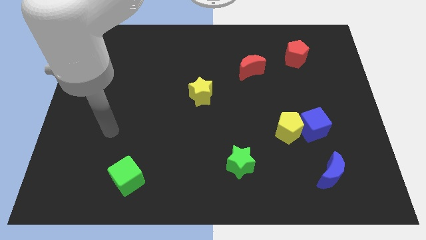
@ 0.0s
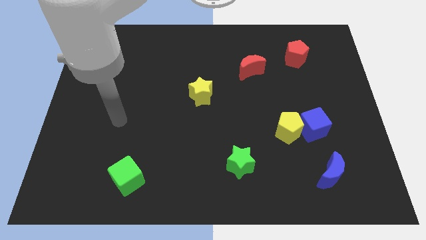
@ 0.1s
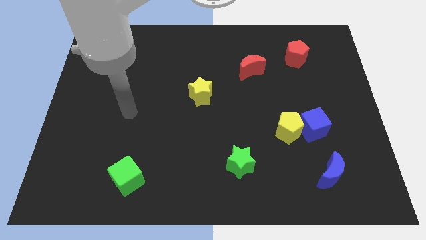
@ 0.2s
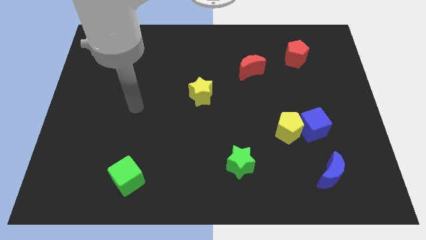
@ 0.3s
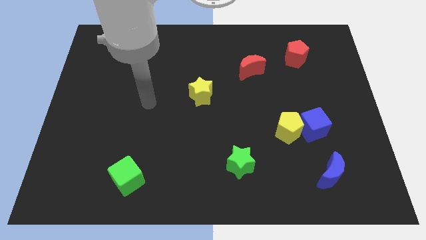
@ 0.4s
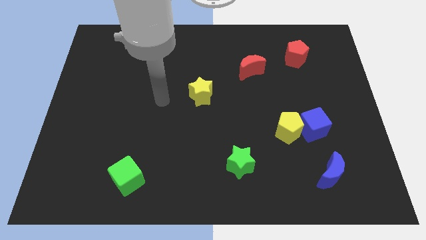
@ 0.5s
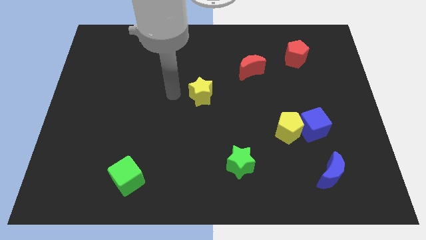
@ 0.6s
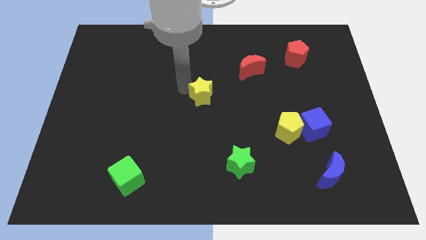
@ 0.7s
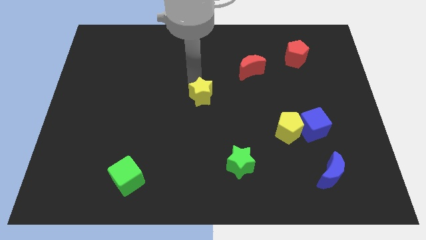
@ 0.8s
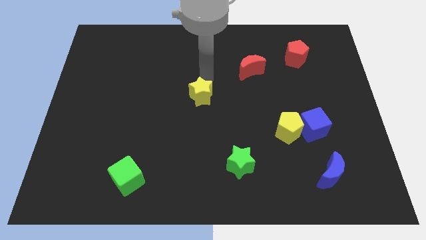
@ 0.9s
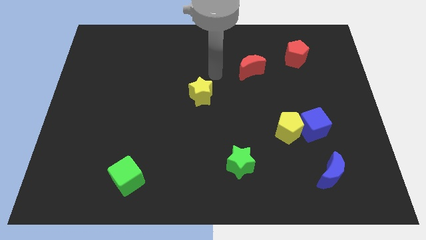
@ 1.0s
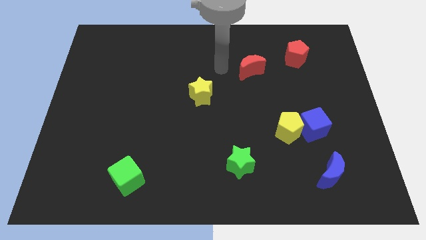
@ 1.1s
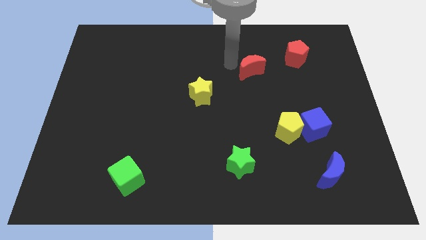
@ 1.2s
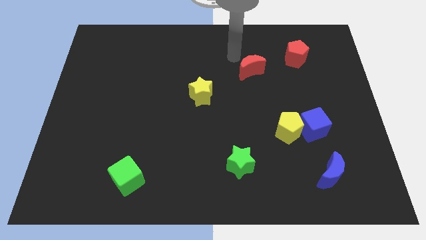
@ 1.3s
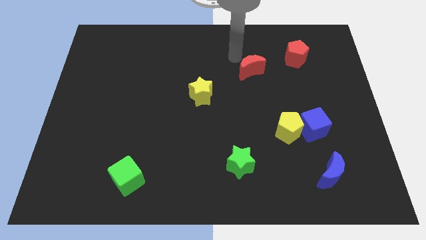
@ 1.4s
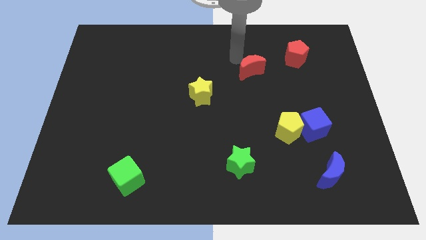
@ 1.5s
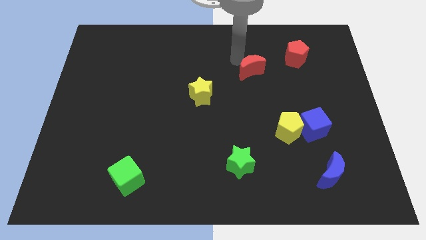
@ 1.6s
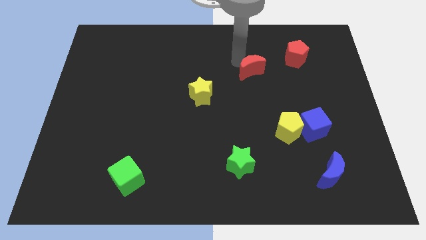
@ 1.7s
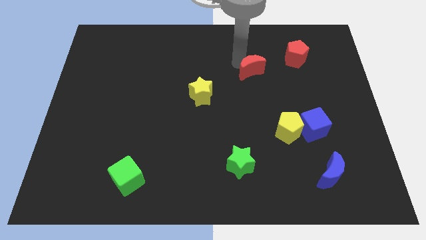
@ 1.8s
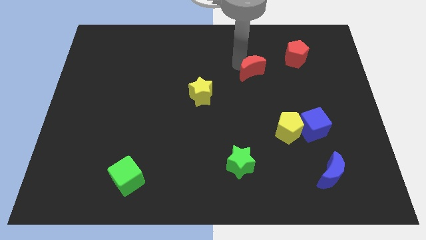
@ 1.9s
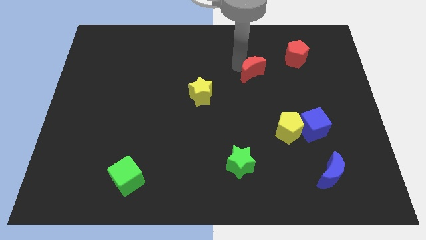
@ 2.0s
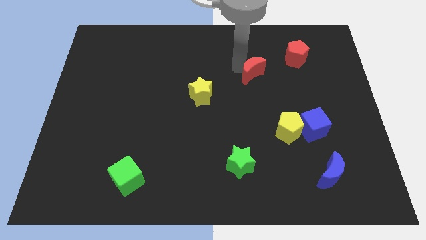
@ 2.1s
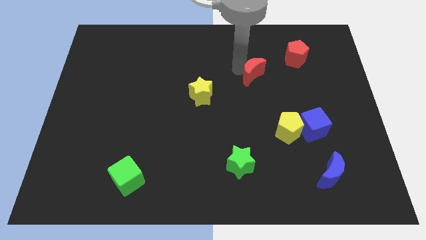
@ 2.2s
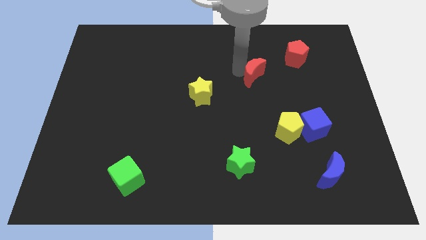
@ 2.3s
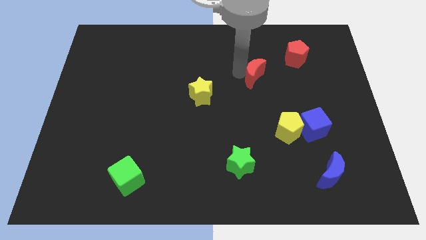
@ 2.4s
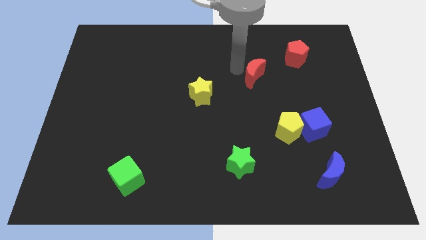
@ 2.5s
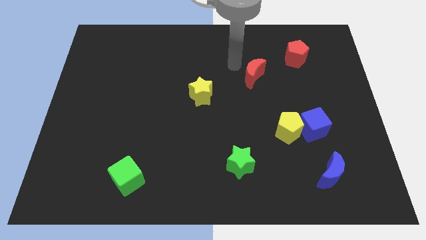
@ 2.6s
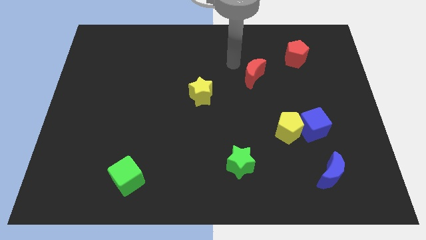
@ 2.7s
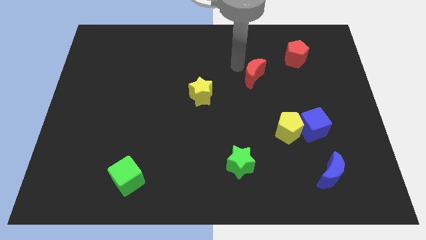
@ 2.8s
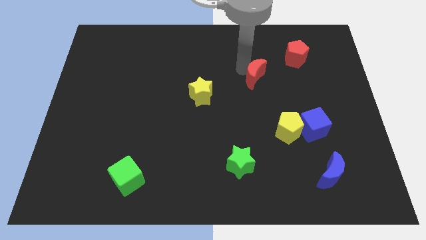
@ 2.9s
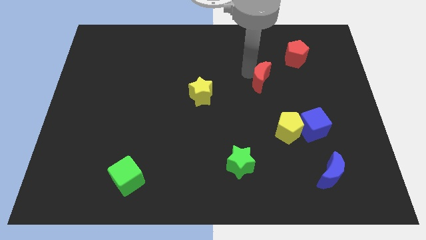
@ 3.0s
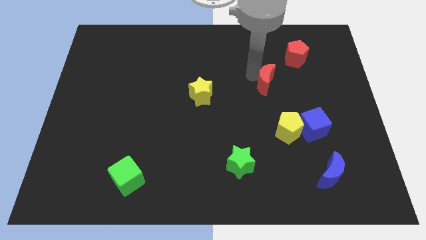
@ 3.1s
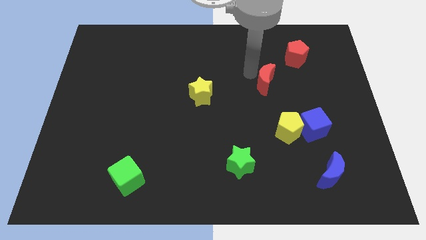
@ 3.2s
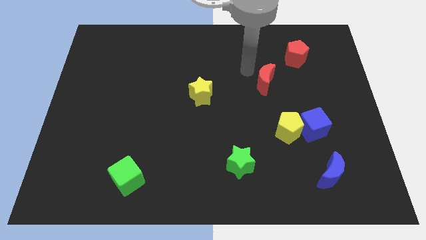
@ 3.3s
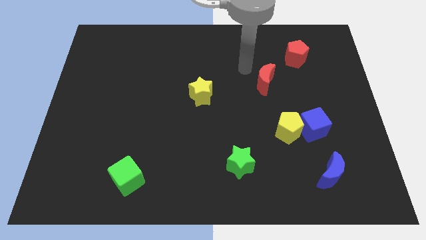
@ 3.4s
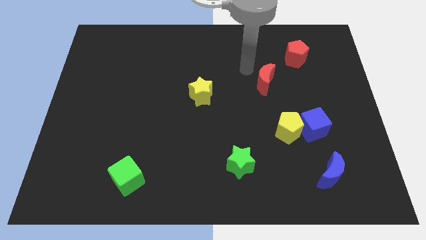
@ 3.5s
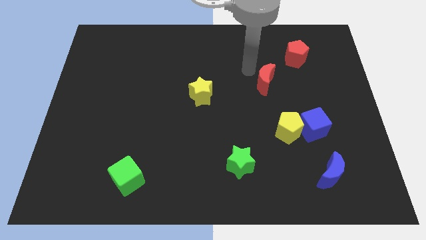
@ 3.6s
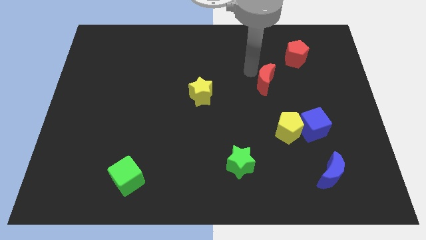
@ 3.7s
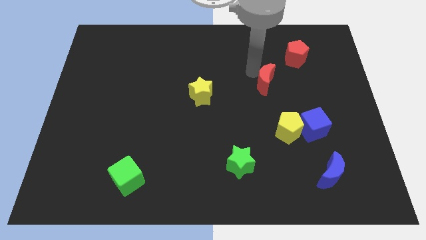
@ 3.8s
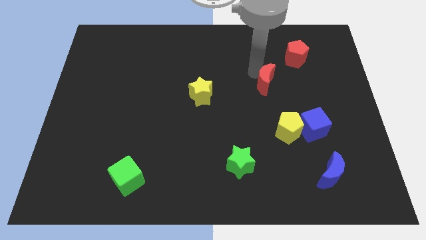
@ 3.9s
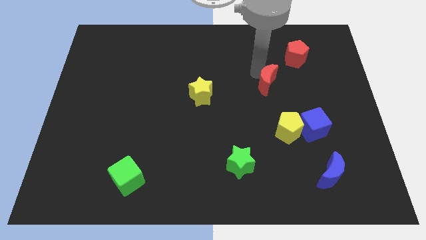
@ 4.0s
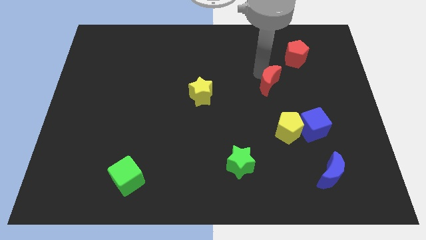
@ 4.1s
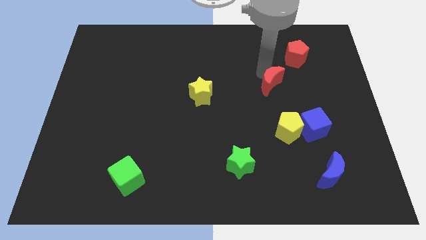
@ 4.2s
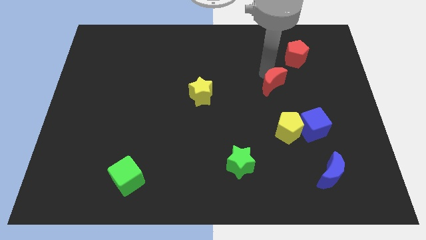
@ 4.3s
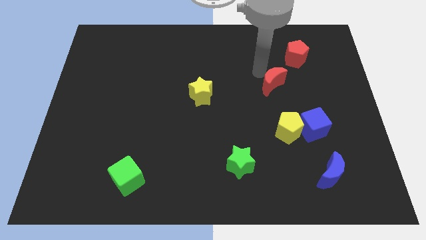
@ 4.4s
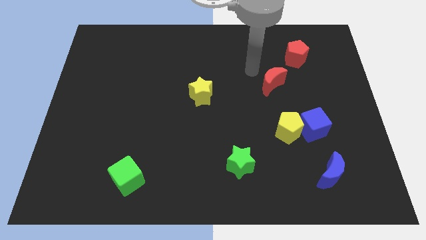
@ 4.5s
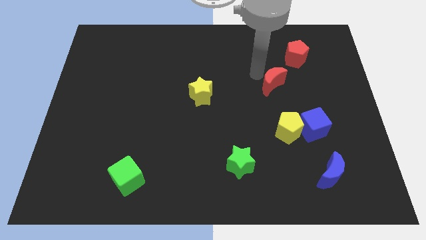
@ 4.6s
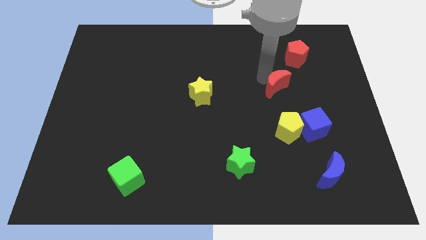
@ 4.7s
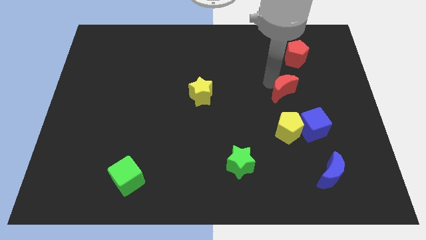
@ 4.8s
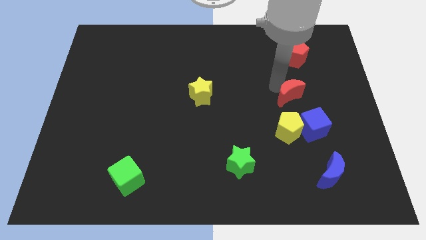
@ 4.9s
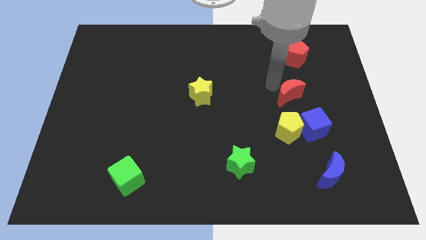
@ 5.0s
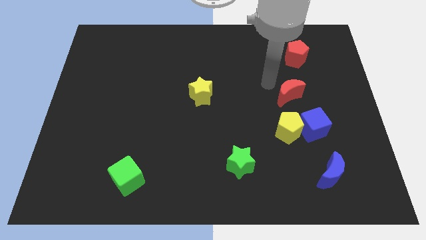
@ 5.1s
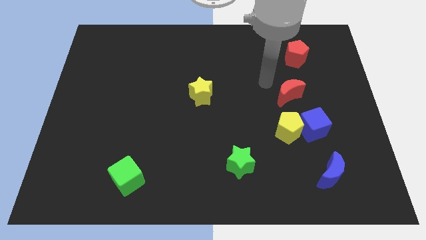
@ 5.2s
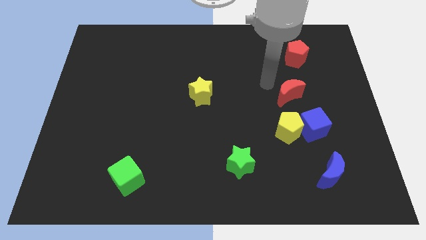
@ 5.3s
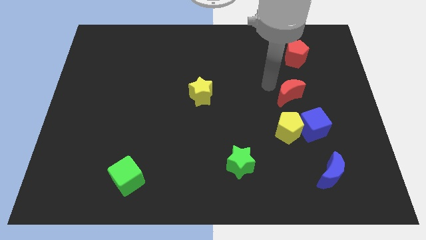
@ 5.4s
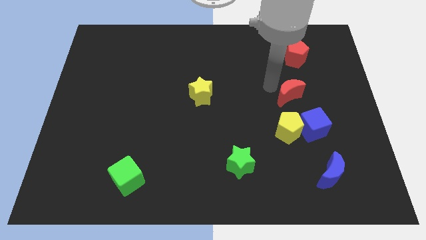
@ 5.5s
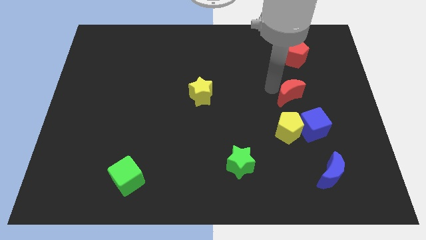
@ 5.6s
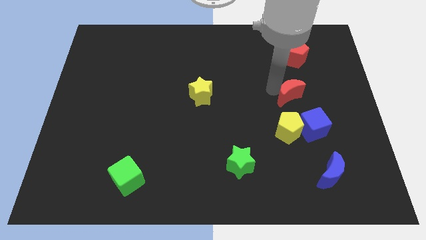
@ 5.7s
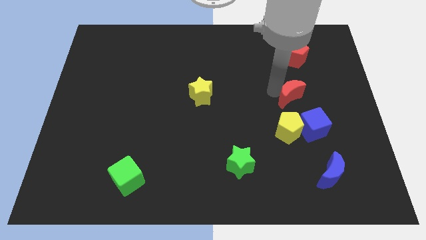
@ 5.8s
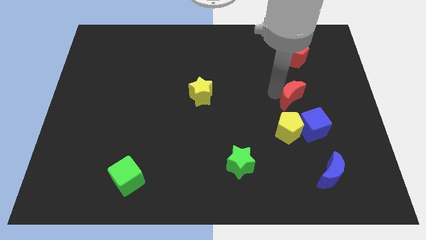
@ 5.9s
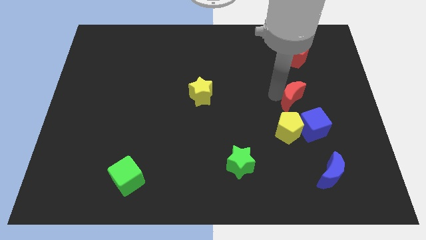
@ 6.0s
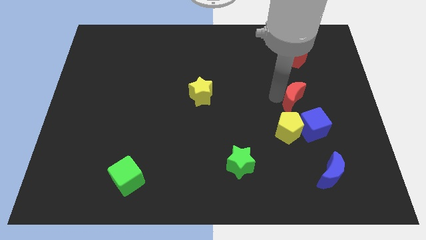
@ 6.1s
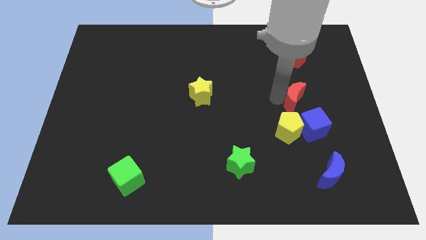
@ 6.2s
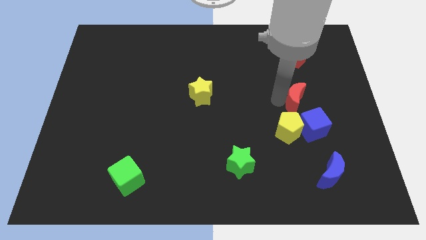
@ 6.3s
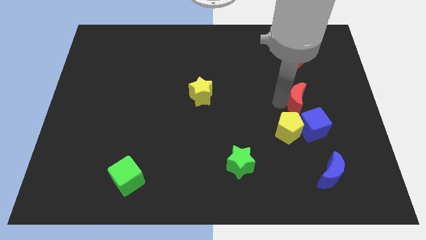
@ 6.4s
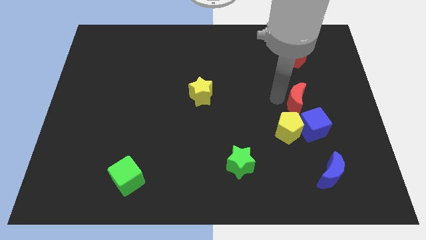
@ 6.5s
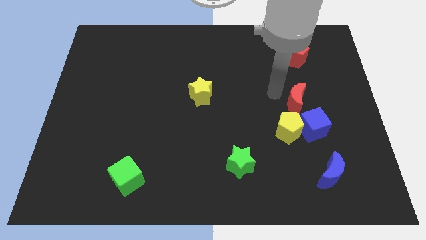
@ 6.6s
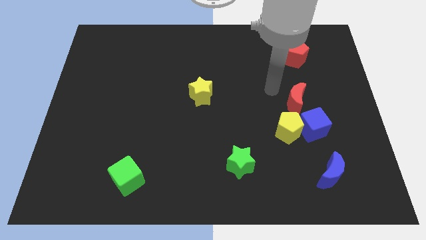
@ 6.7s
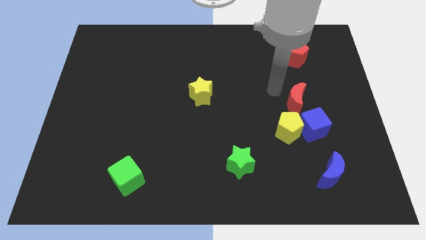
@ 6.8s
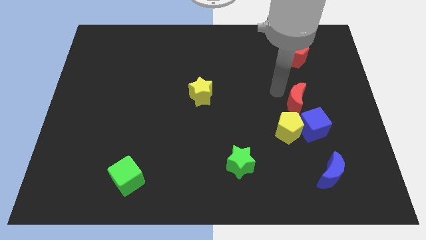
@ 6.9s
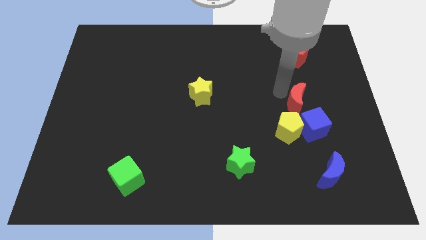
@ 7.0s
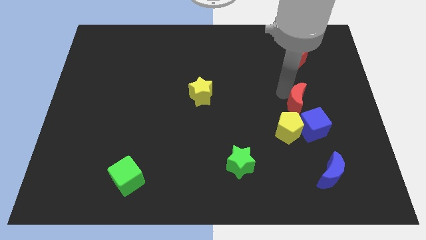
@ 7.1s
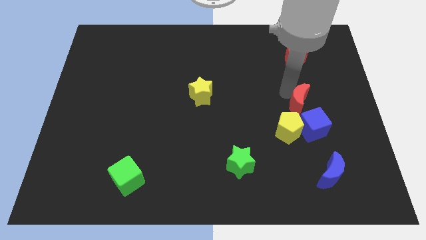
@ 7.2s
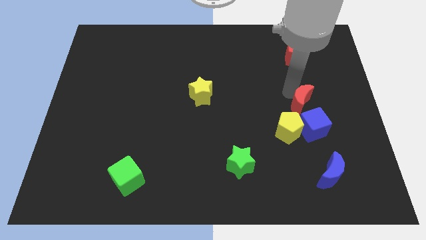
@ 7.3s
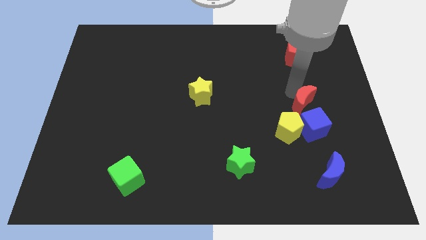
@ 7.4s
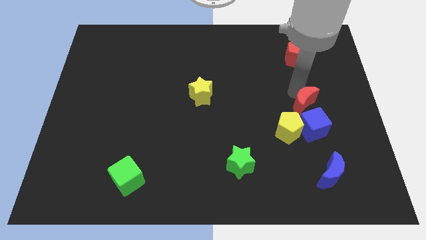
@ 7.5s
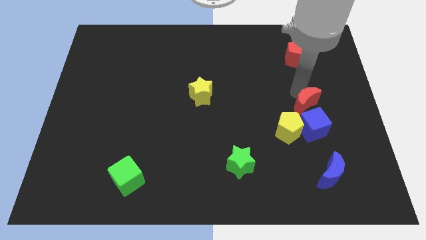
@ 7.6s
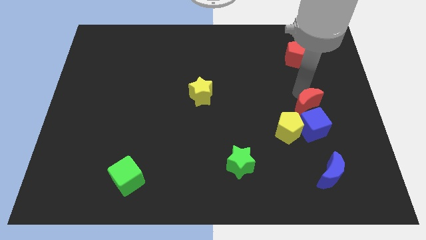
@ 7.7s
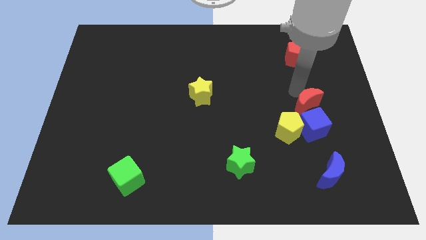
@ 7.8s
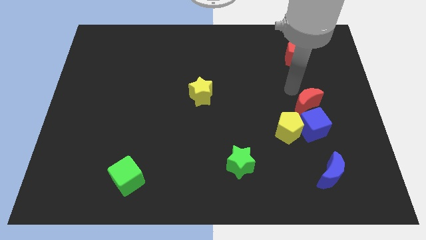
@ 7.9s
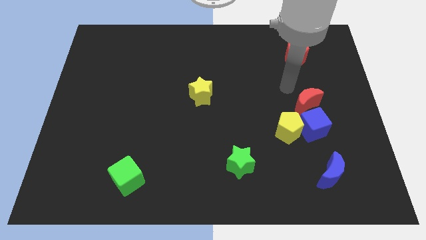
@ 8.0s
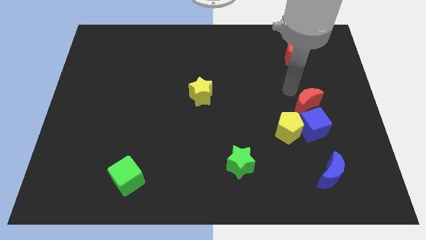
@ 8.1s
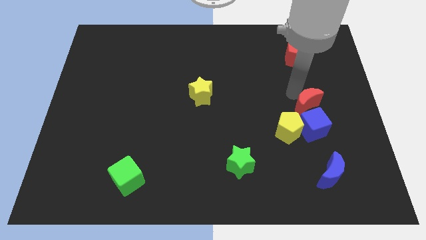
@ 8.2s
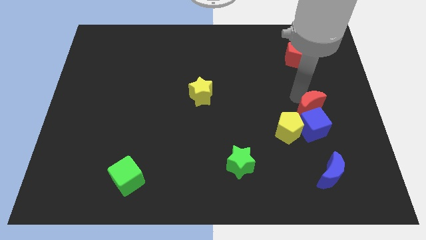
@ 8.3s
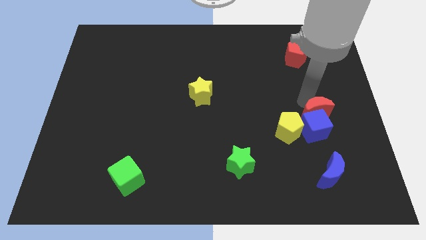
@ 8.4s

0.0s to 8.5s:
put the red moon above the blue moon
